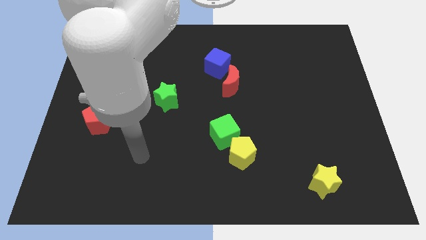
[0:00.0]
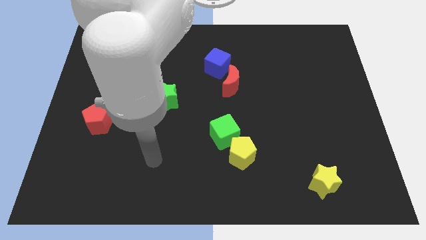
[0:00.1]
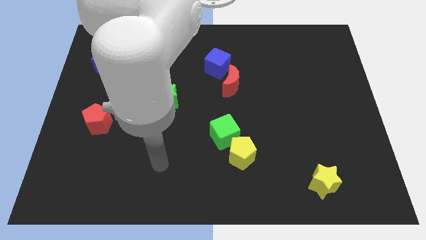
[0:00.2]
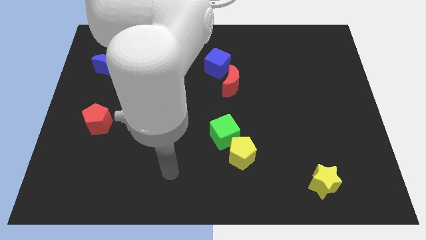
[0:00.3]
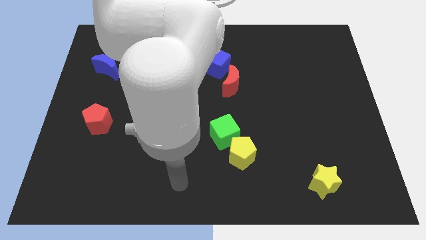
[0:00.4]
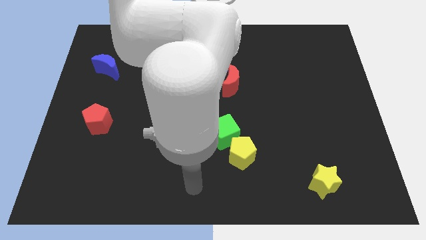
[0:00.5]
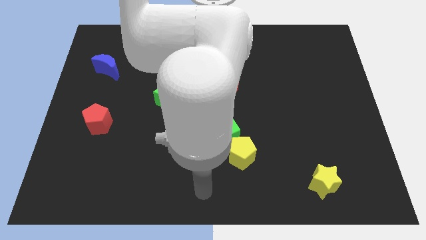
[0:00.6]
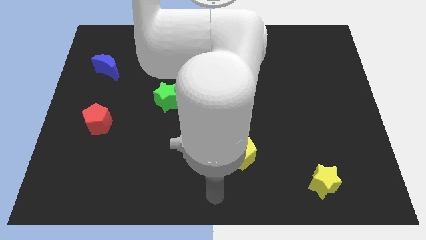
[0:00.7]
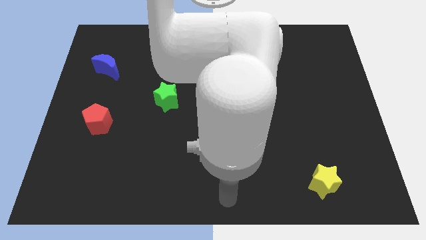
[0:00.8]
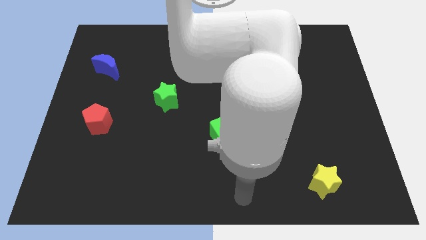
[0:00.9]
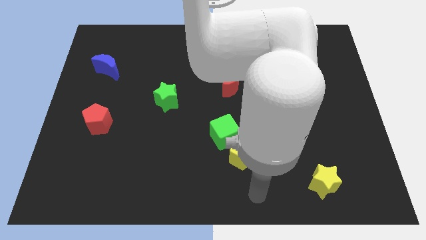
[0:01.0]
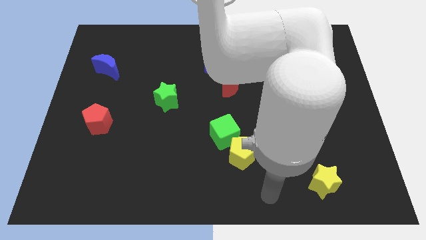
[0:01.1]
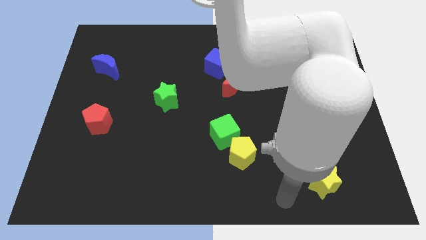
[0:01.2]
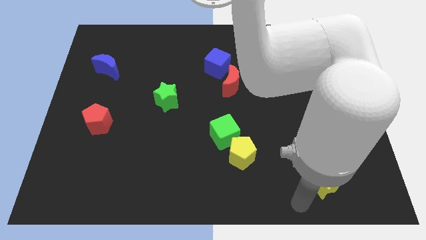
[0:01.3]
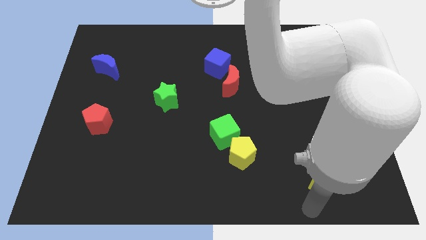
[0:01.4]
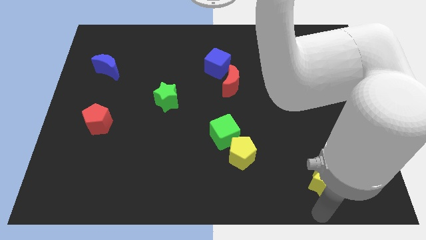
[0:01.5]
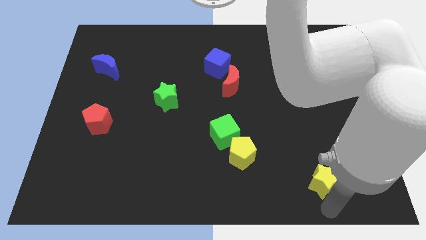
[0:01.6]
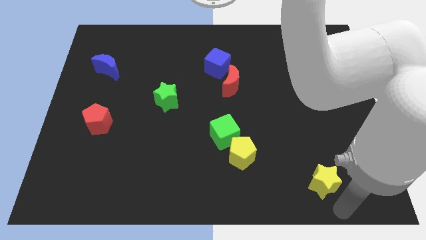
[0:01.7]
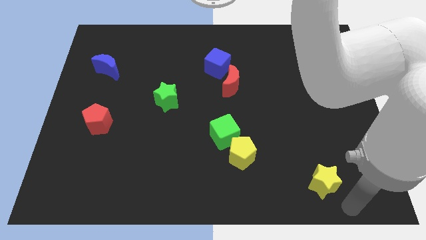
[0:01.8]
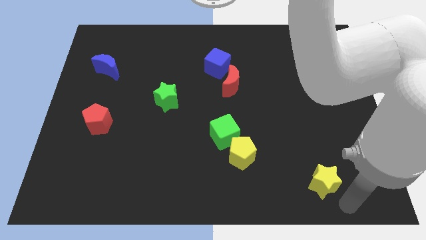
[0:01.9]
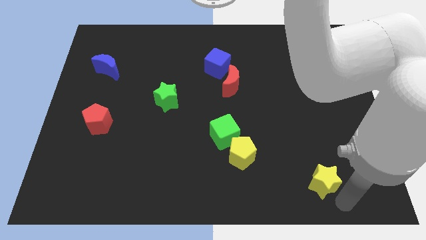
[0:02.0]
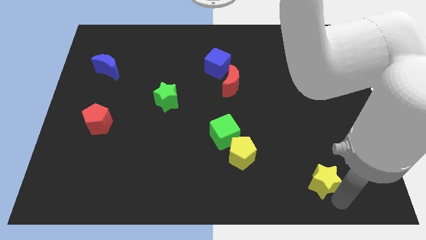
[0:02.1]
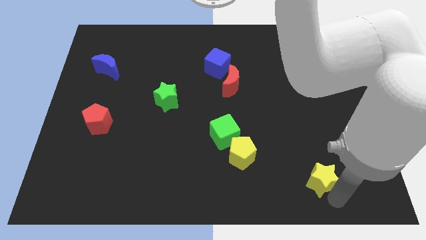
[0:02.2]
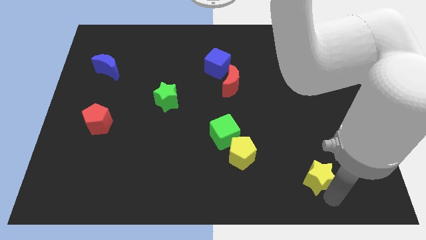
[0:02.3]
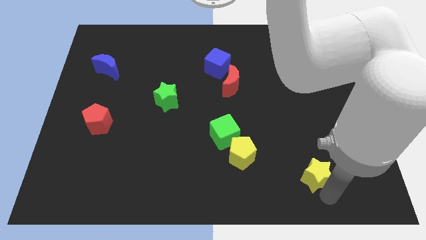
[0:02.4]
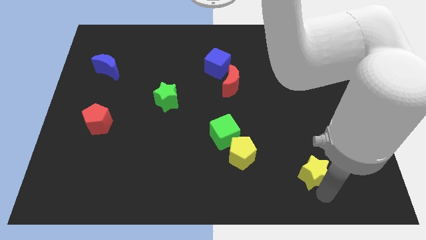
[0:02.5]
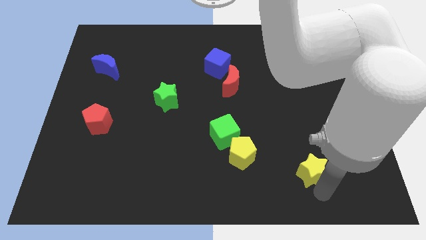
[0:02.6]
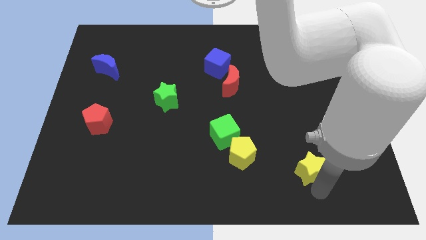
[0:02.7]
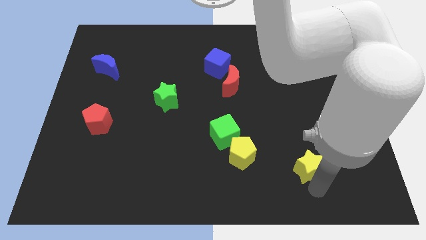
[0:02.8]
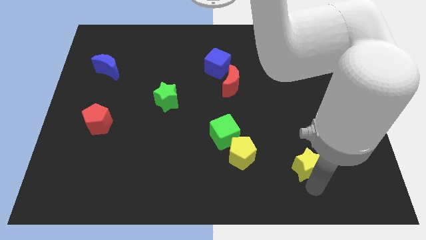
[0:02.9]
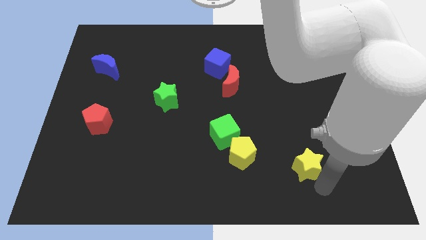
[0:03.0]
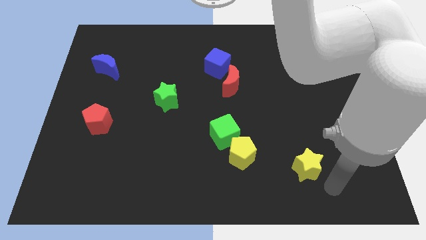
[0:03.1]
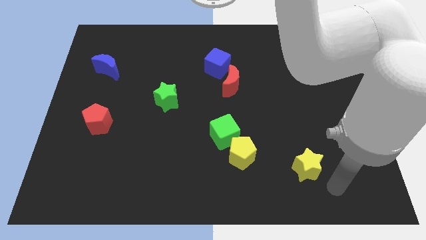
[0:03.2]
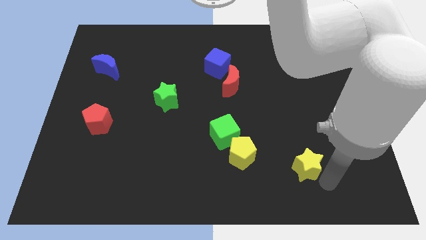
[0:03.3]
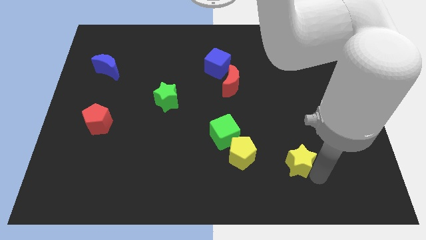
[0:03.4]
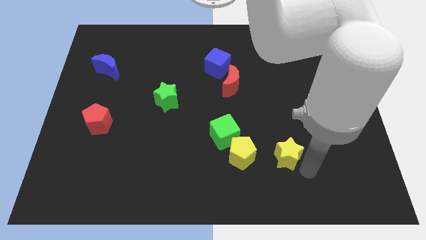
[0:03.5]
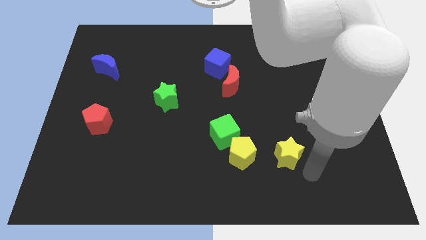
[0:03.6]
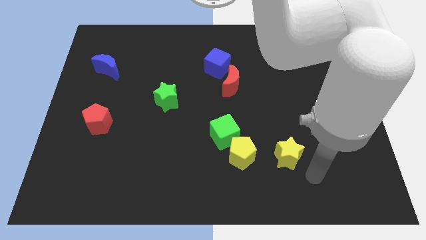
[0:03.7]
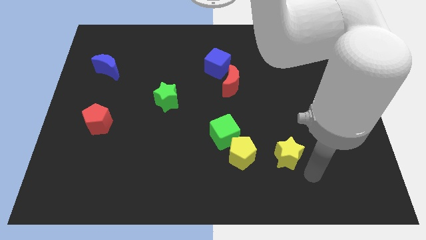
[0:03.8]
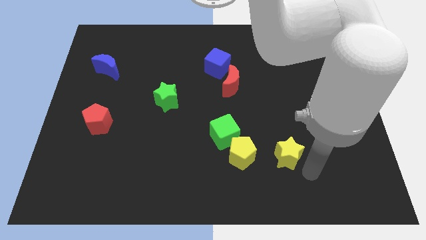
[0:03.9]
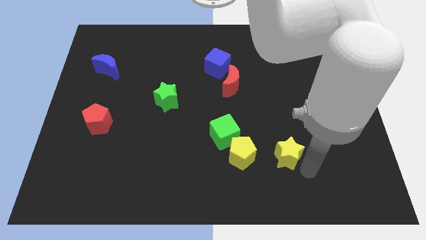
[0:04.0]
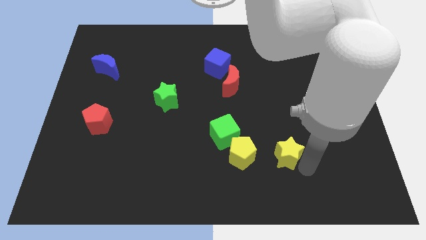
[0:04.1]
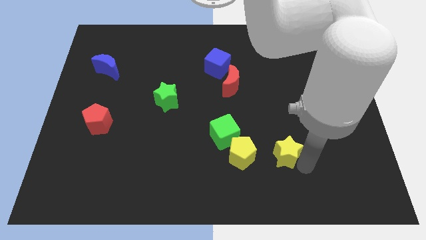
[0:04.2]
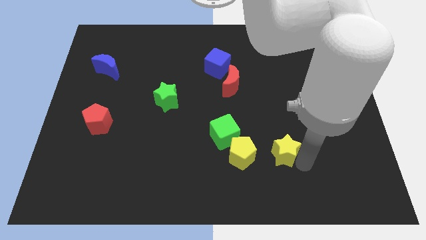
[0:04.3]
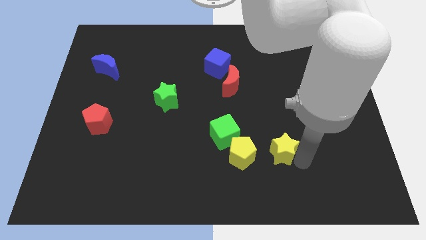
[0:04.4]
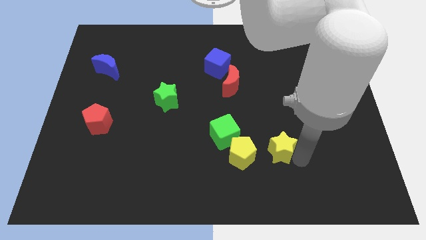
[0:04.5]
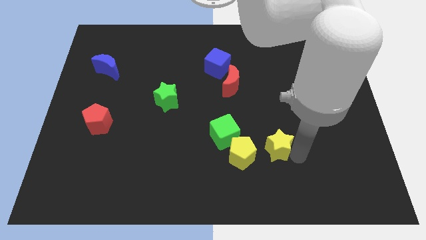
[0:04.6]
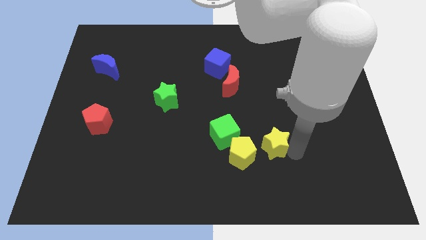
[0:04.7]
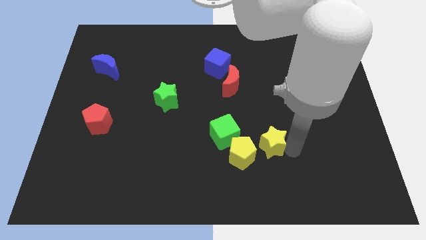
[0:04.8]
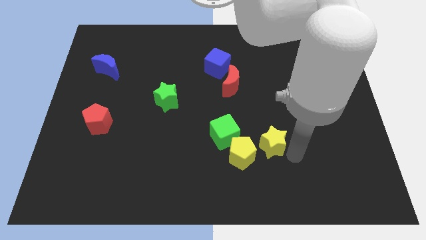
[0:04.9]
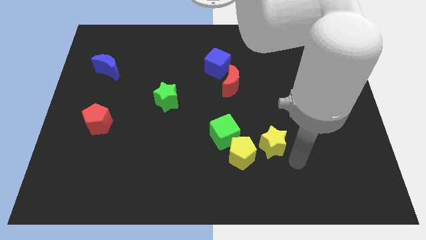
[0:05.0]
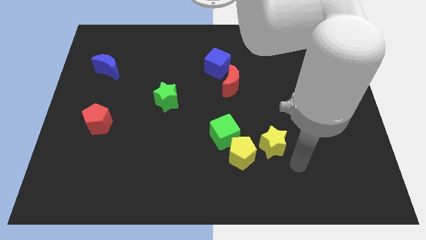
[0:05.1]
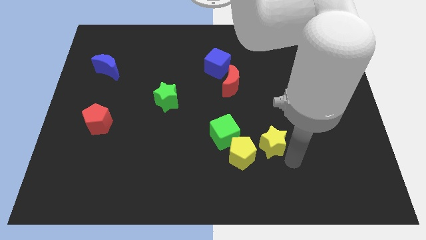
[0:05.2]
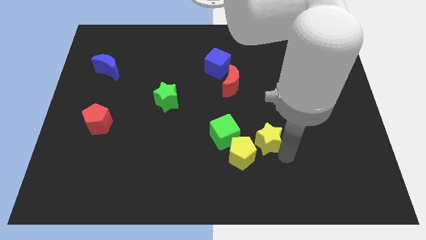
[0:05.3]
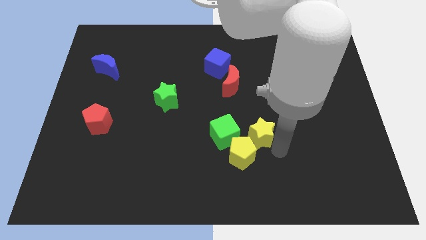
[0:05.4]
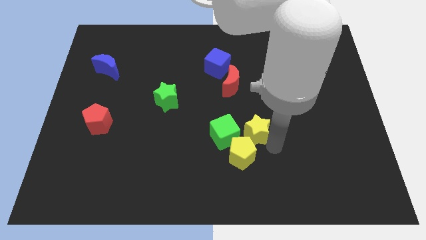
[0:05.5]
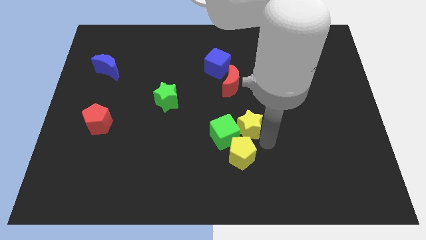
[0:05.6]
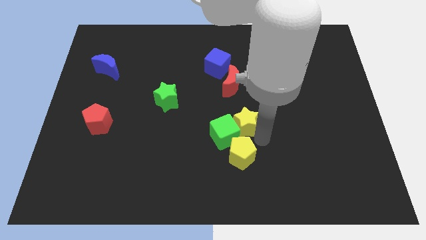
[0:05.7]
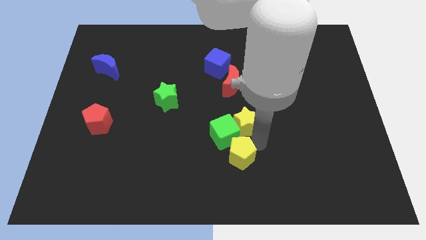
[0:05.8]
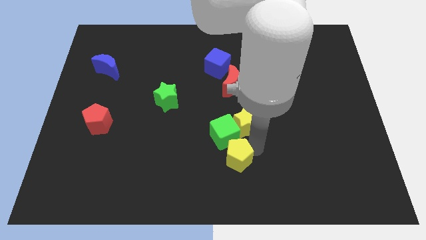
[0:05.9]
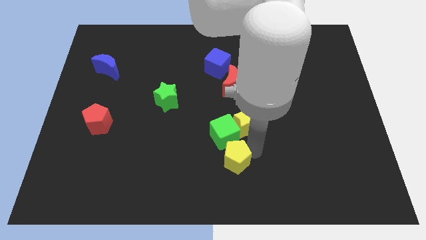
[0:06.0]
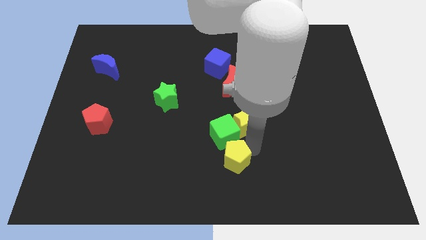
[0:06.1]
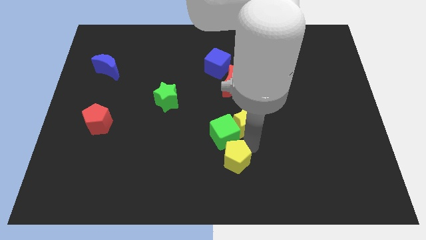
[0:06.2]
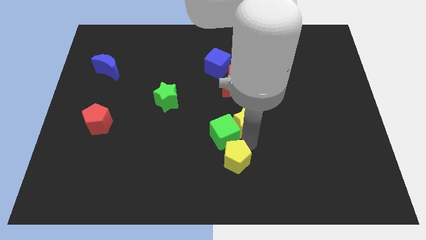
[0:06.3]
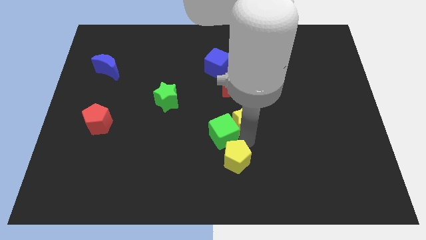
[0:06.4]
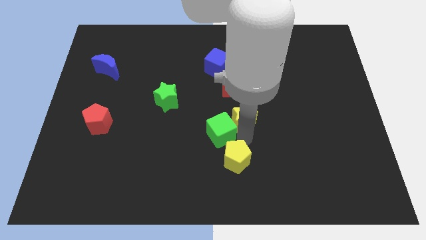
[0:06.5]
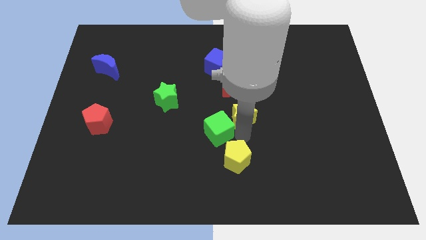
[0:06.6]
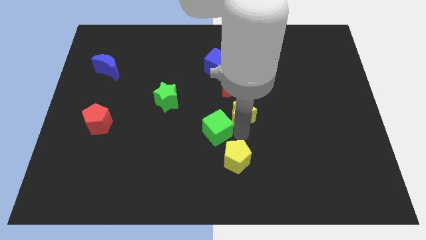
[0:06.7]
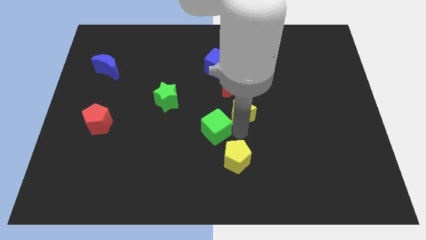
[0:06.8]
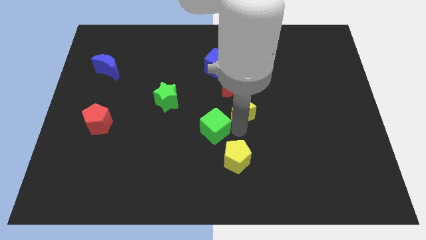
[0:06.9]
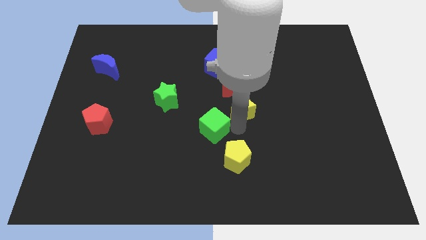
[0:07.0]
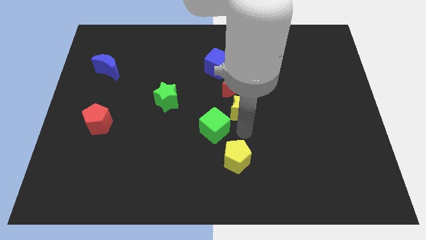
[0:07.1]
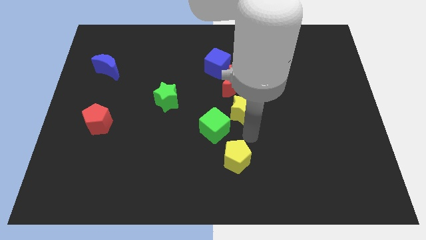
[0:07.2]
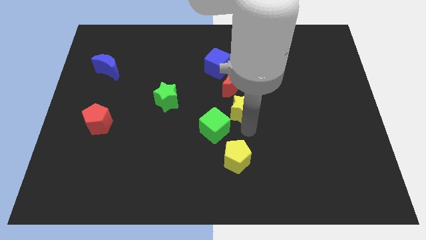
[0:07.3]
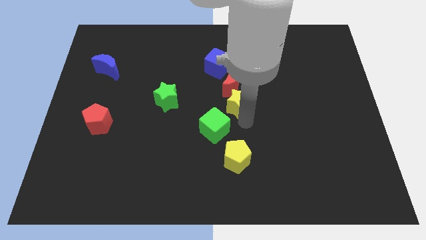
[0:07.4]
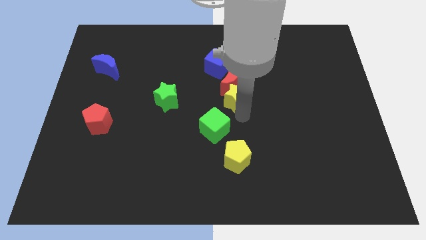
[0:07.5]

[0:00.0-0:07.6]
push the yellow star towards the red moon
